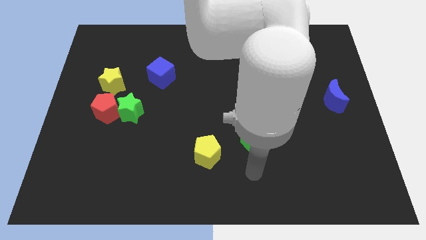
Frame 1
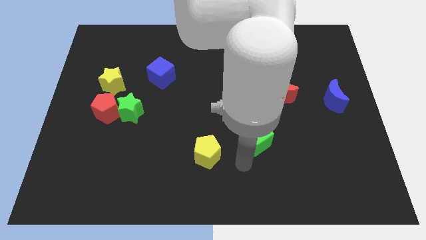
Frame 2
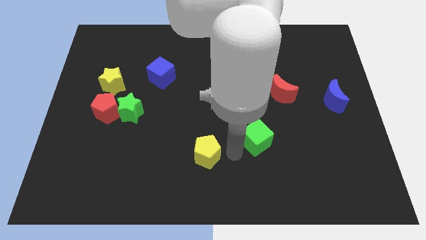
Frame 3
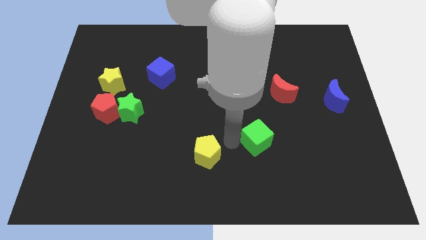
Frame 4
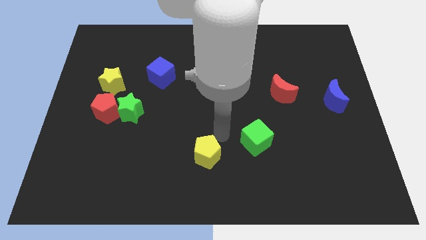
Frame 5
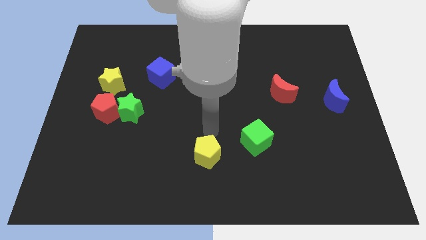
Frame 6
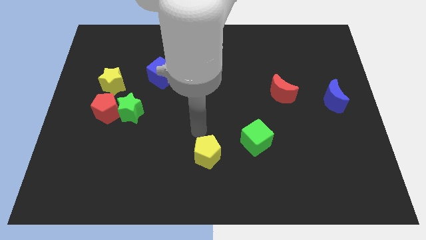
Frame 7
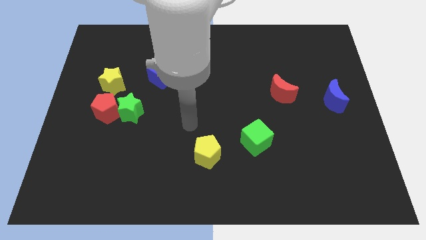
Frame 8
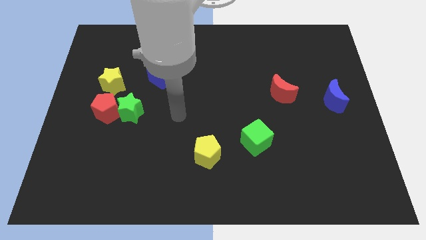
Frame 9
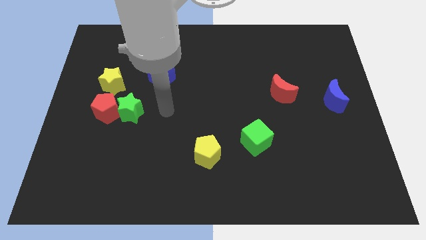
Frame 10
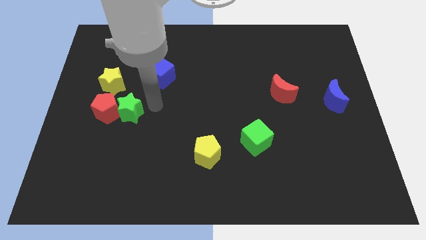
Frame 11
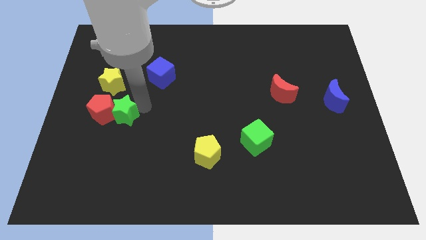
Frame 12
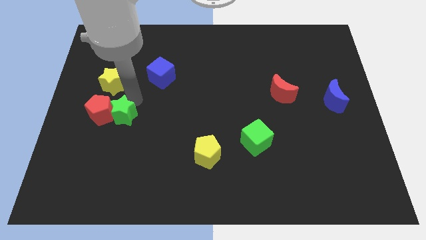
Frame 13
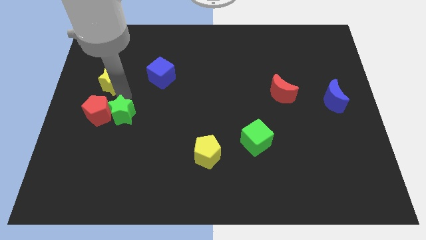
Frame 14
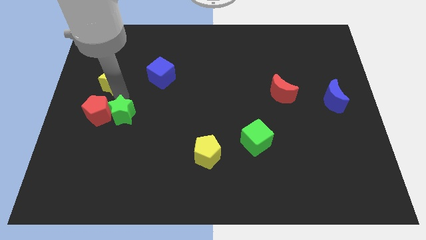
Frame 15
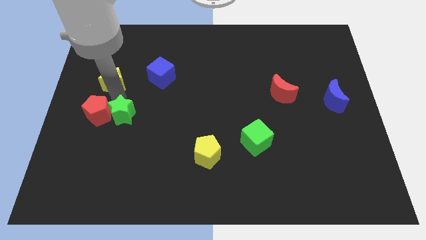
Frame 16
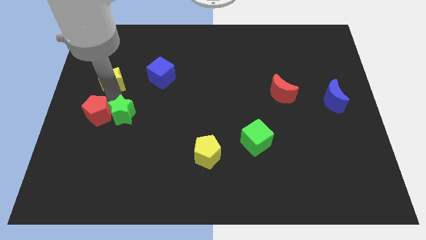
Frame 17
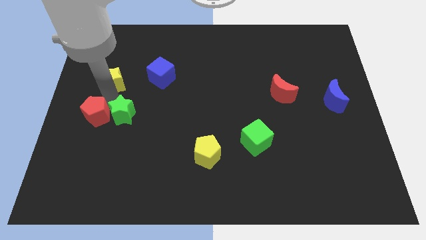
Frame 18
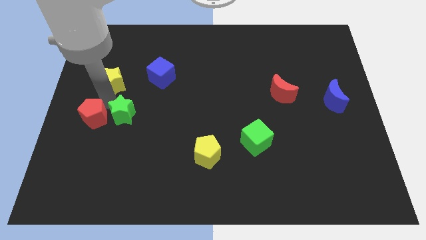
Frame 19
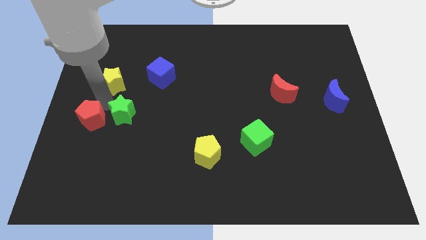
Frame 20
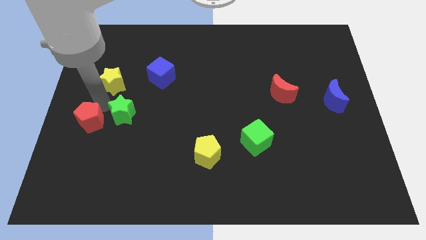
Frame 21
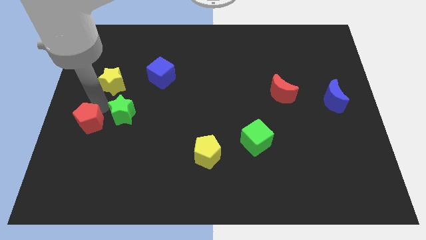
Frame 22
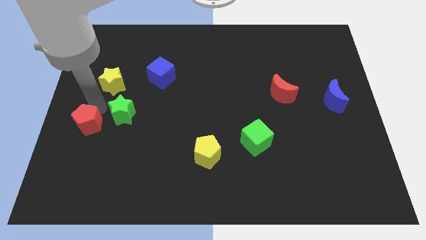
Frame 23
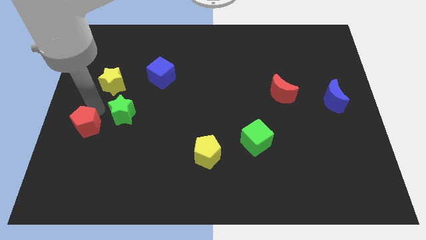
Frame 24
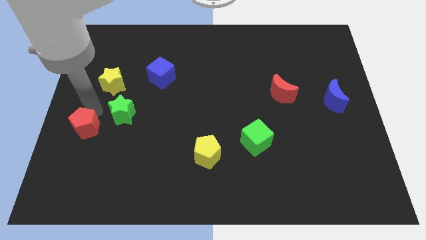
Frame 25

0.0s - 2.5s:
pull the red pentagon apart from the green star and yellow star

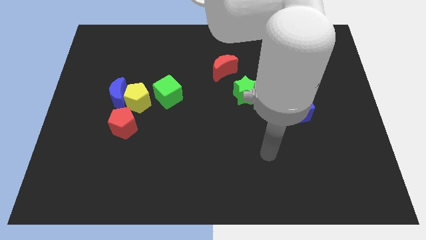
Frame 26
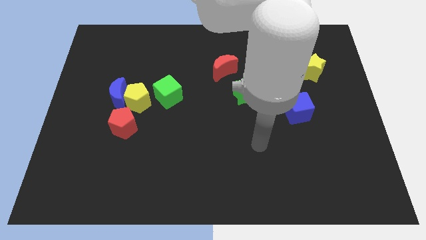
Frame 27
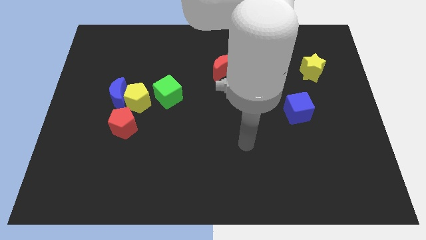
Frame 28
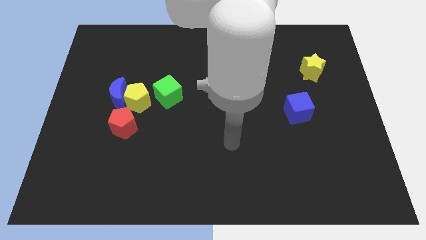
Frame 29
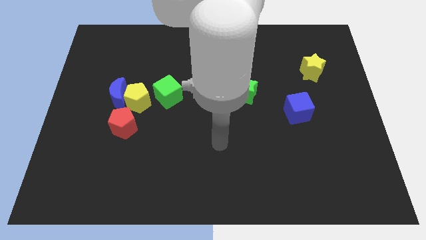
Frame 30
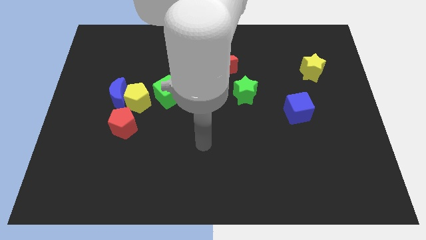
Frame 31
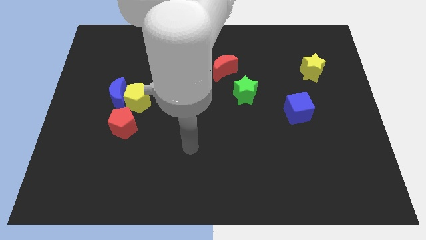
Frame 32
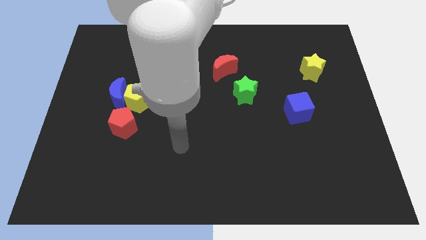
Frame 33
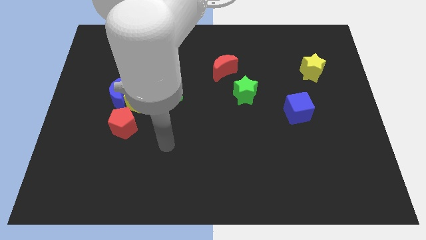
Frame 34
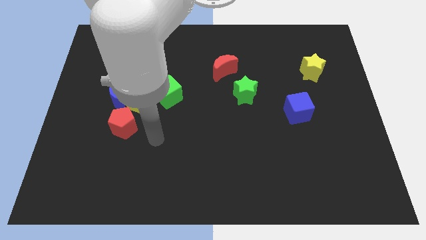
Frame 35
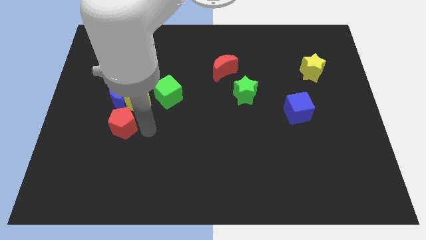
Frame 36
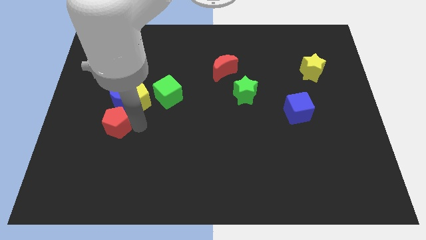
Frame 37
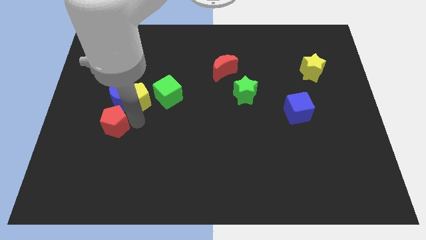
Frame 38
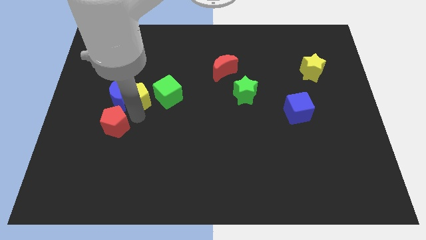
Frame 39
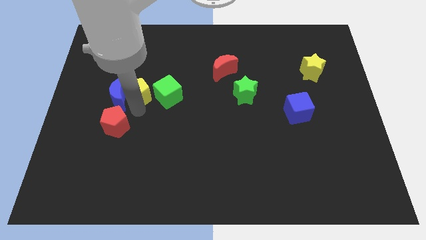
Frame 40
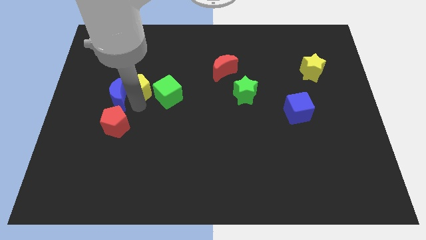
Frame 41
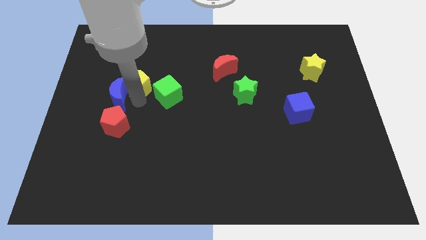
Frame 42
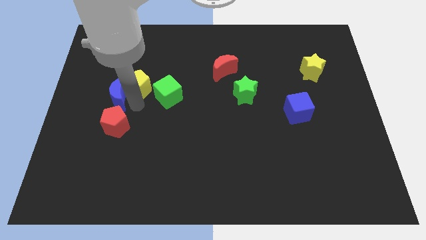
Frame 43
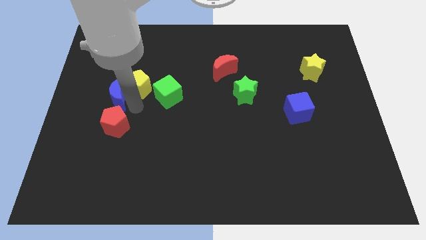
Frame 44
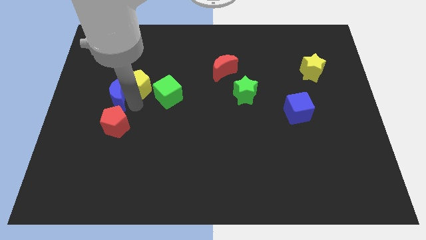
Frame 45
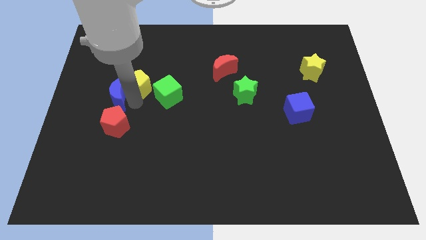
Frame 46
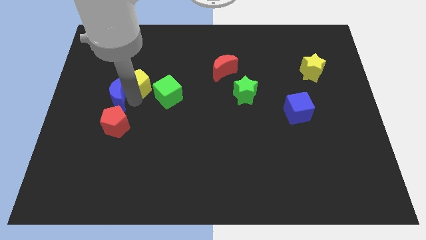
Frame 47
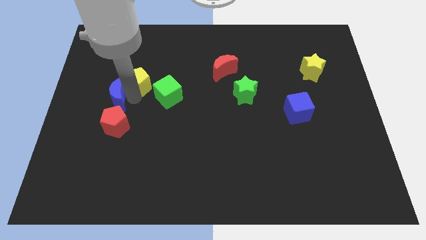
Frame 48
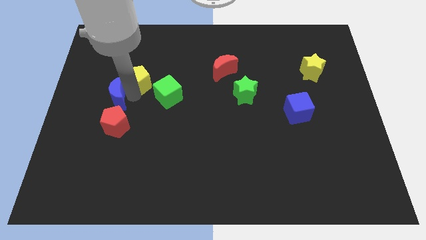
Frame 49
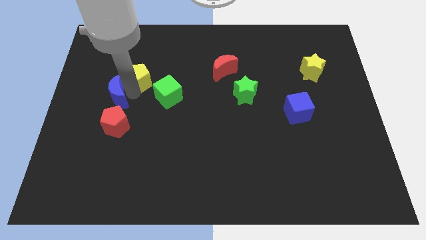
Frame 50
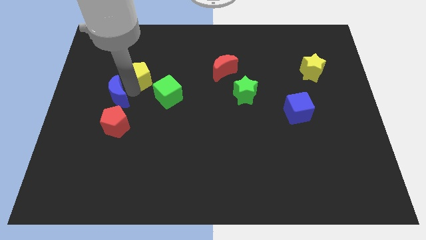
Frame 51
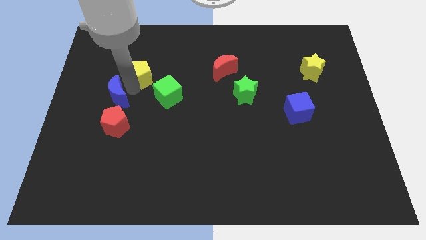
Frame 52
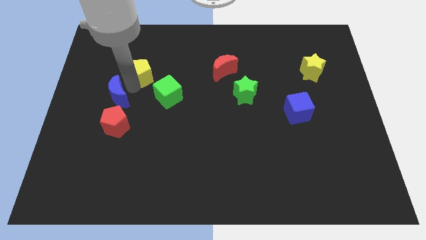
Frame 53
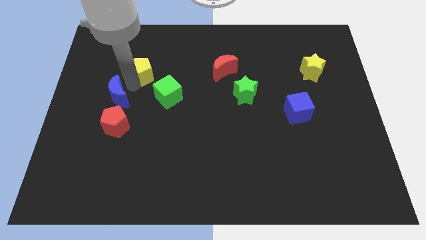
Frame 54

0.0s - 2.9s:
separate the yellow pentagon from the clump

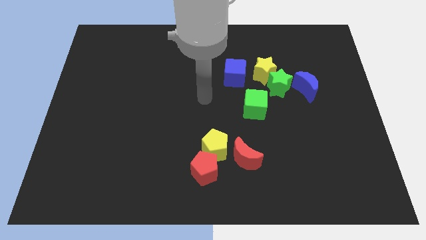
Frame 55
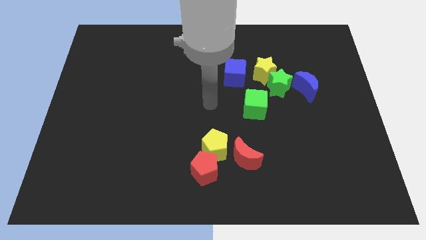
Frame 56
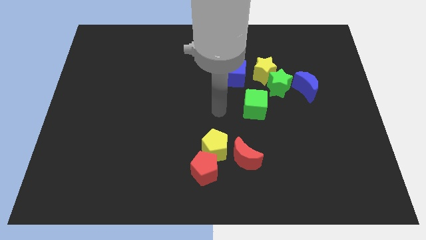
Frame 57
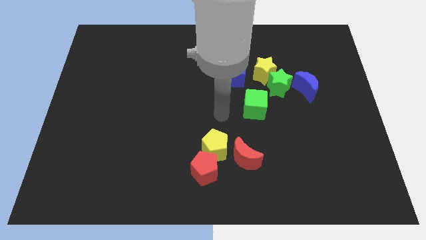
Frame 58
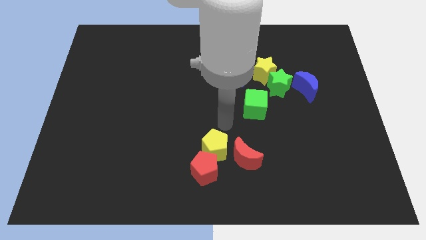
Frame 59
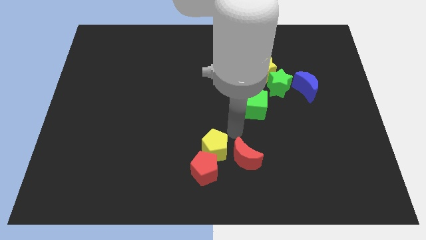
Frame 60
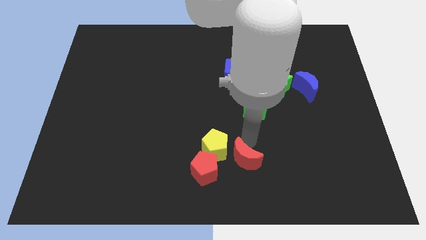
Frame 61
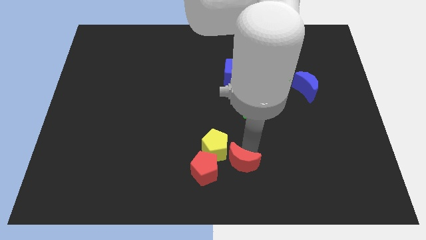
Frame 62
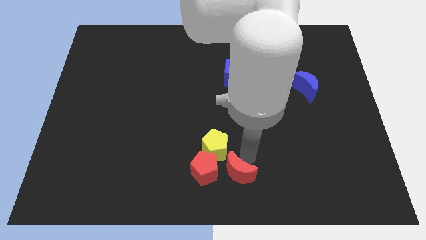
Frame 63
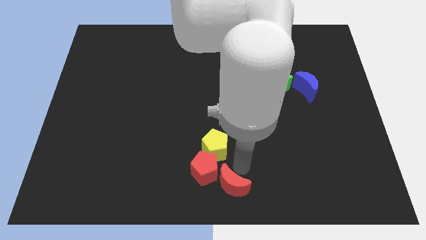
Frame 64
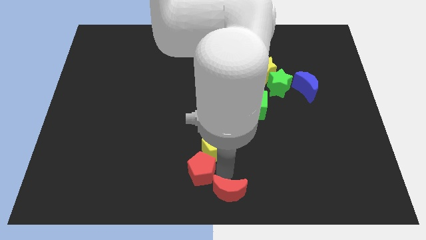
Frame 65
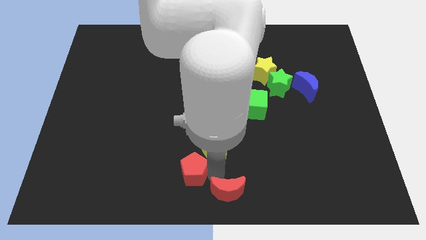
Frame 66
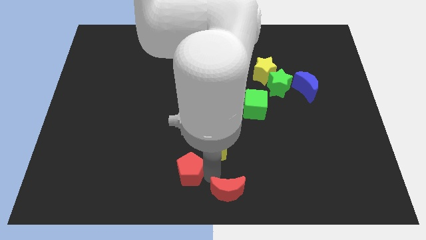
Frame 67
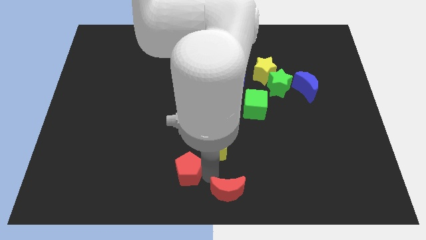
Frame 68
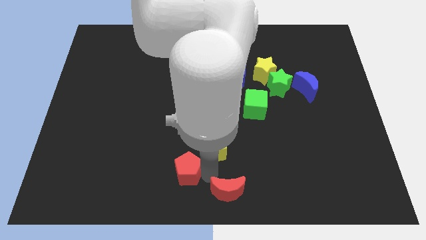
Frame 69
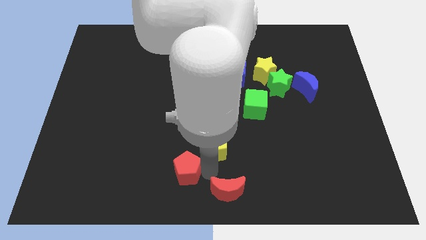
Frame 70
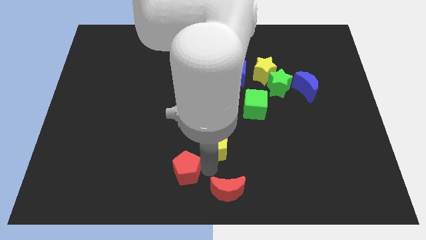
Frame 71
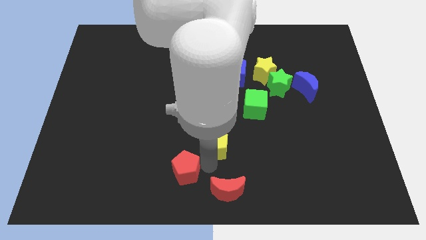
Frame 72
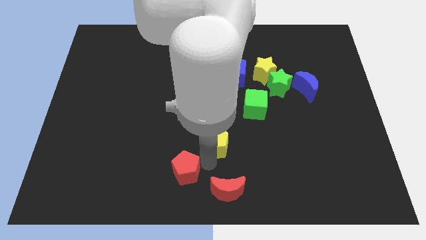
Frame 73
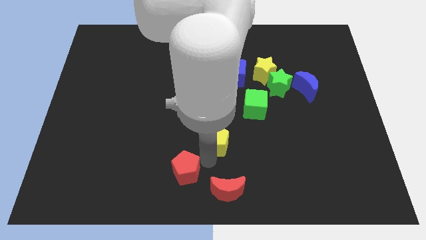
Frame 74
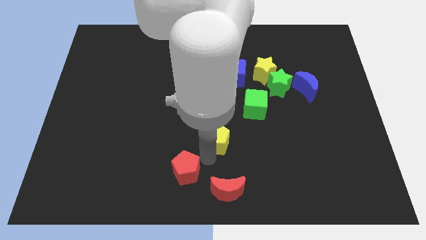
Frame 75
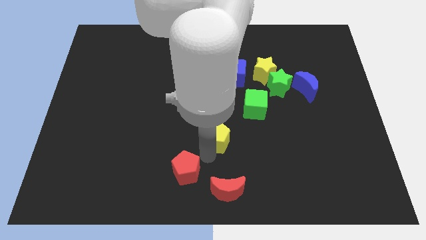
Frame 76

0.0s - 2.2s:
pull the yellow pentagon apart from the red pentagon and red moon

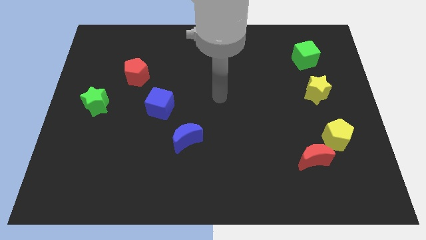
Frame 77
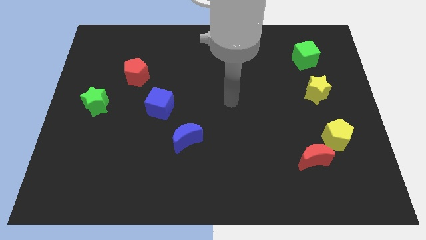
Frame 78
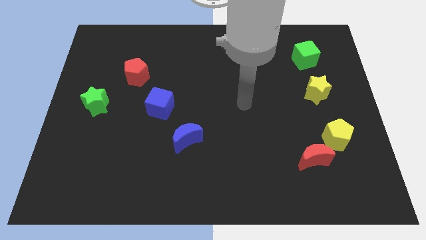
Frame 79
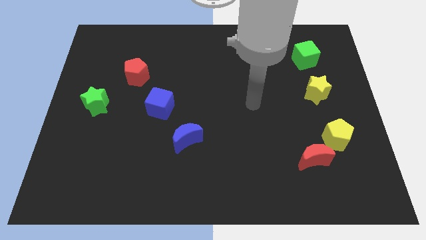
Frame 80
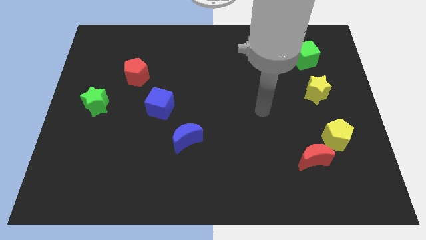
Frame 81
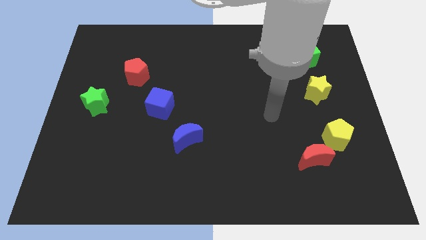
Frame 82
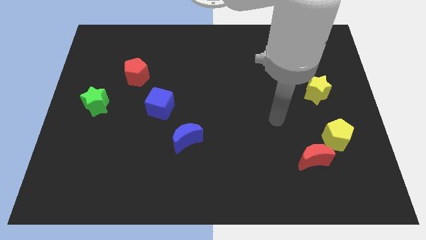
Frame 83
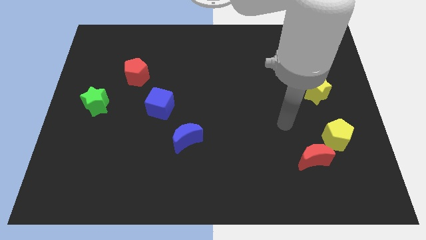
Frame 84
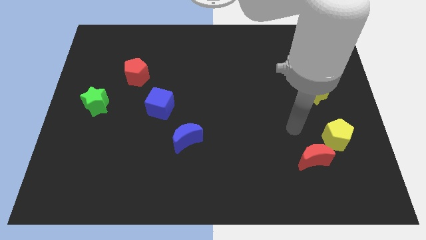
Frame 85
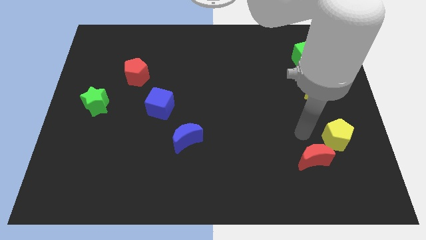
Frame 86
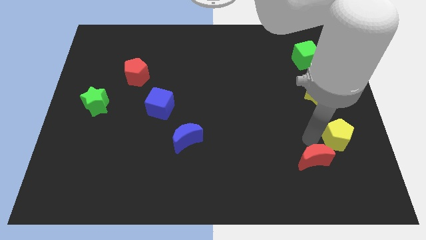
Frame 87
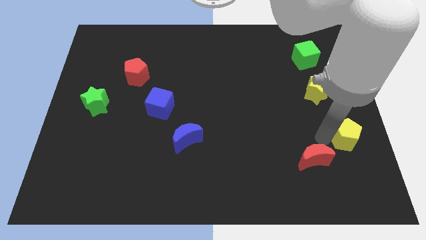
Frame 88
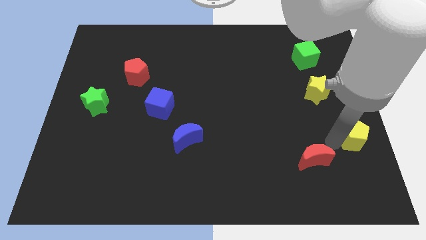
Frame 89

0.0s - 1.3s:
separate the red moon from the yellow pentagon

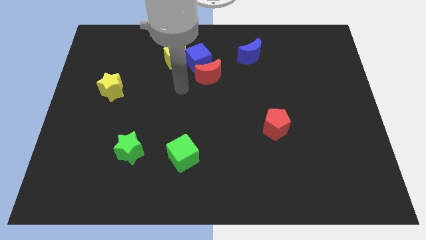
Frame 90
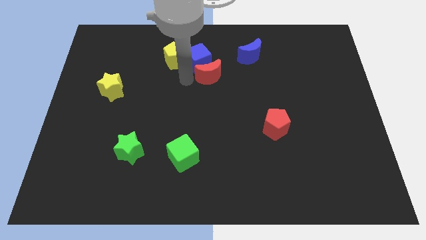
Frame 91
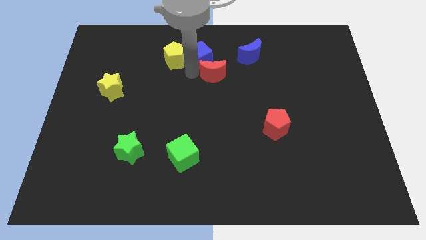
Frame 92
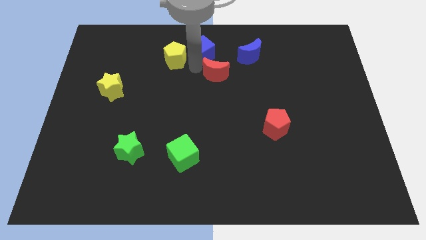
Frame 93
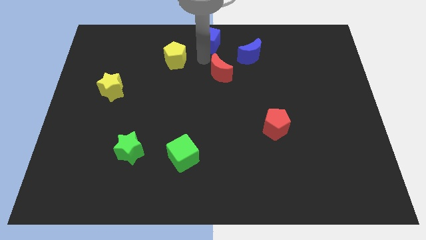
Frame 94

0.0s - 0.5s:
move the red moon away from the blue cube
